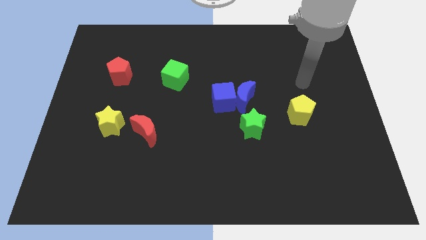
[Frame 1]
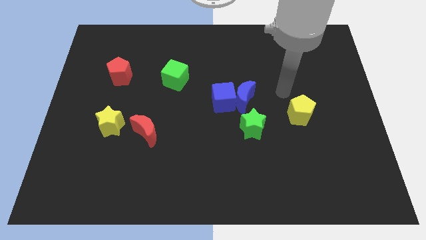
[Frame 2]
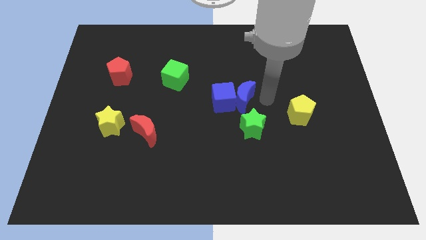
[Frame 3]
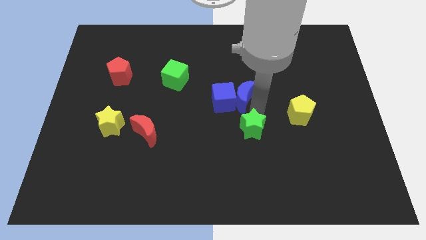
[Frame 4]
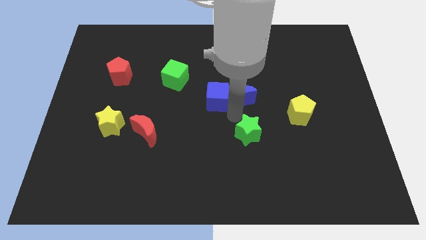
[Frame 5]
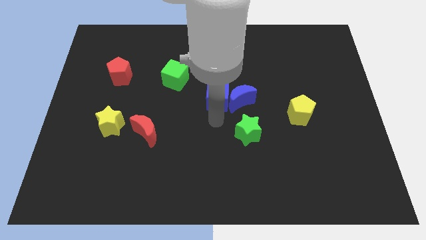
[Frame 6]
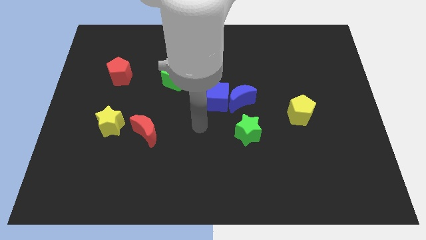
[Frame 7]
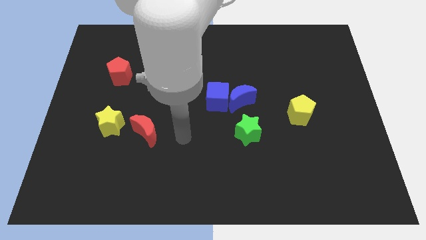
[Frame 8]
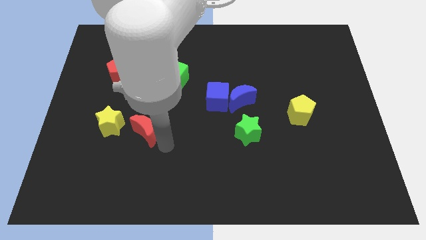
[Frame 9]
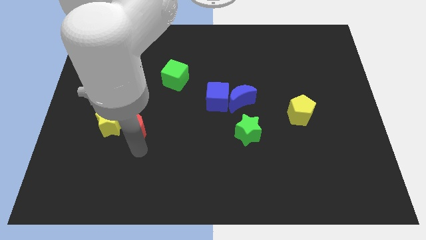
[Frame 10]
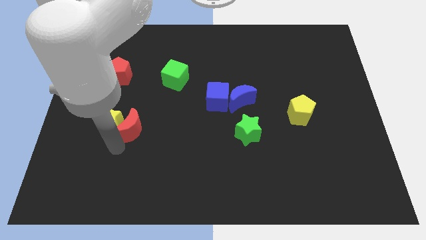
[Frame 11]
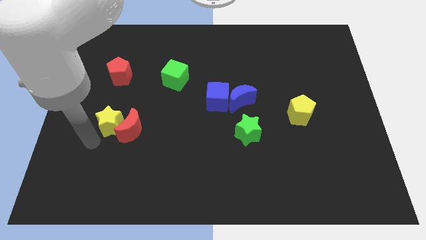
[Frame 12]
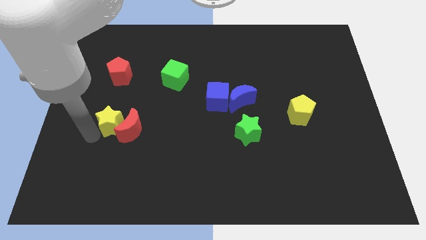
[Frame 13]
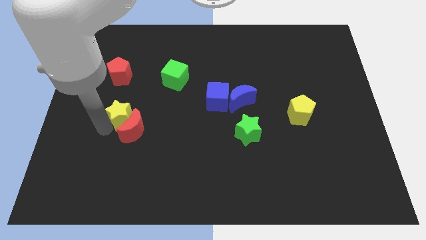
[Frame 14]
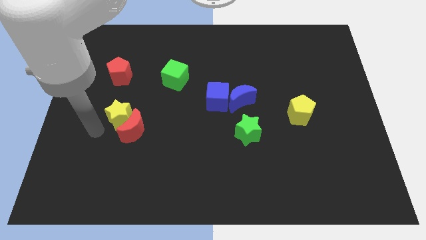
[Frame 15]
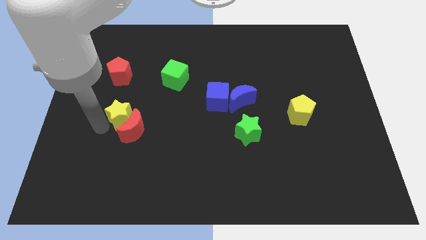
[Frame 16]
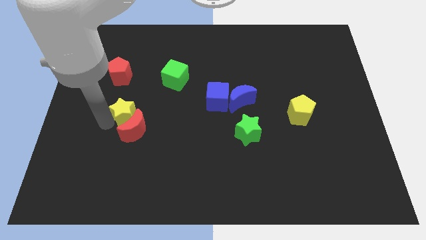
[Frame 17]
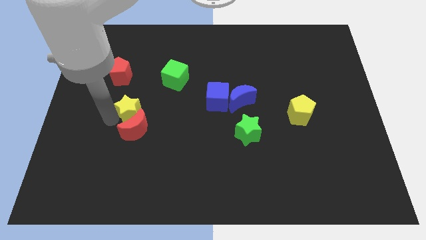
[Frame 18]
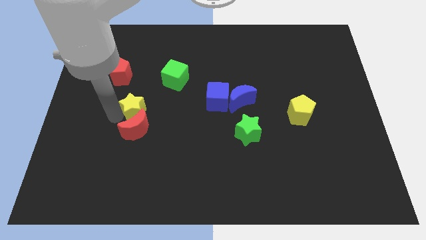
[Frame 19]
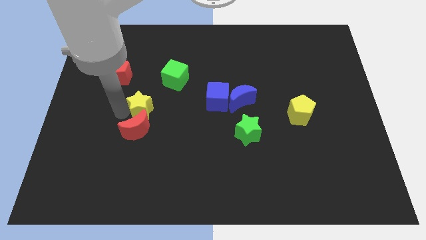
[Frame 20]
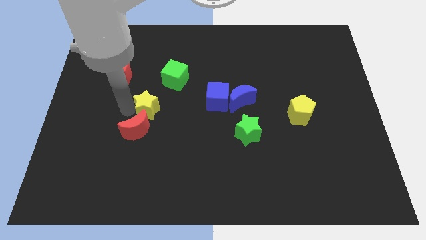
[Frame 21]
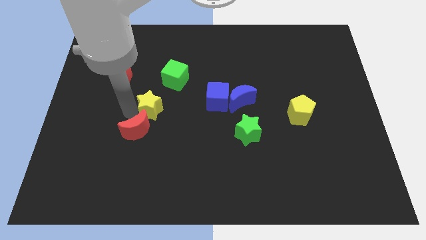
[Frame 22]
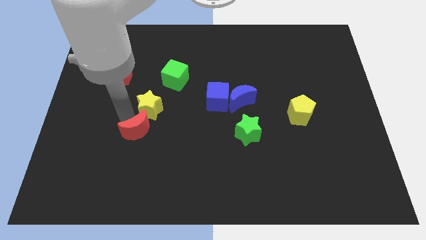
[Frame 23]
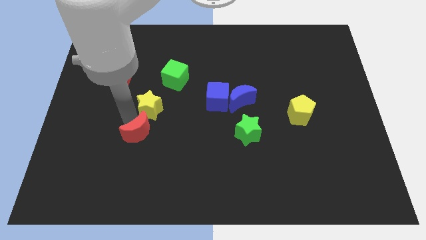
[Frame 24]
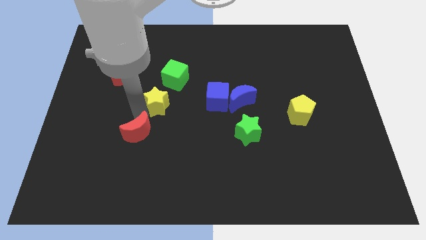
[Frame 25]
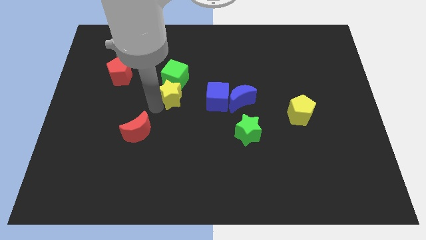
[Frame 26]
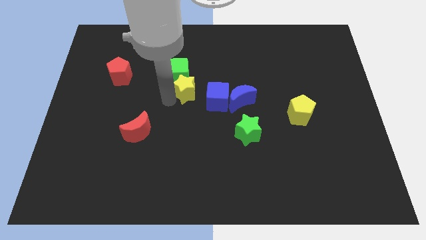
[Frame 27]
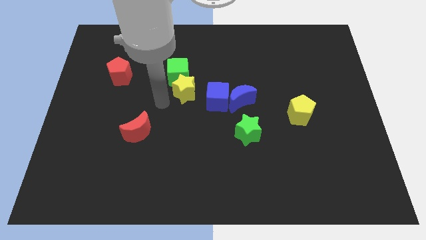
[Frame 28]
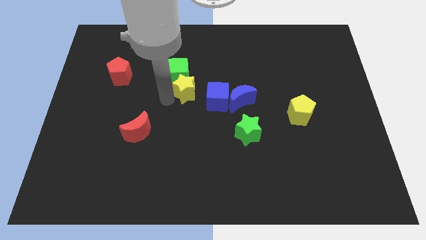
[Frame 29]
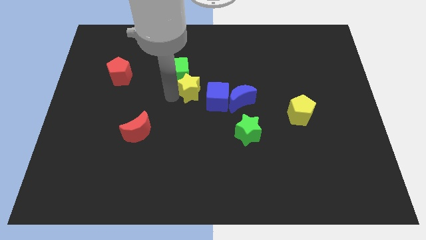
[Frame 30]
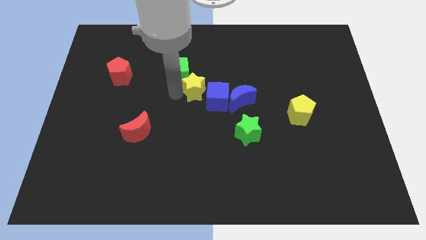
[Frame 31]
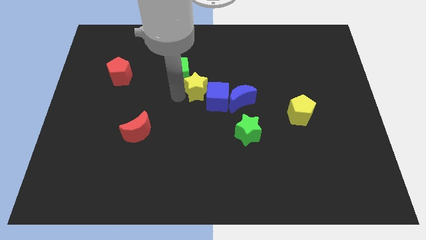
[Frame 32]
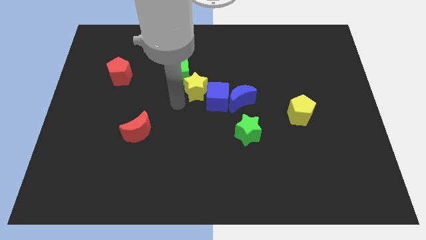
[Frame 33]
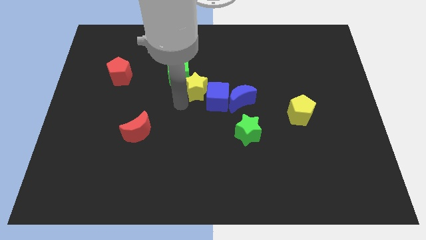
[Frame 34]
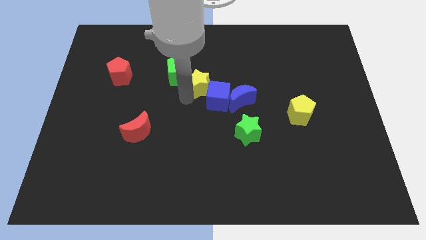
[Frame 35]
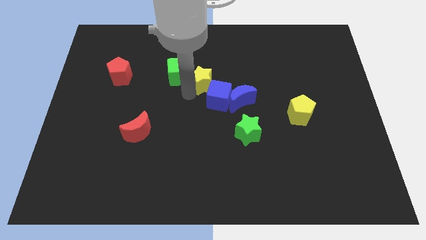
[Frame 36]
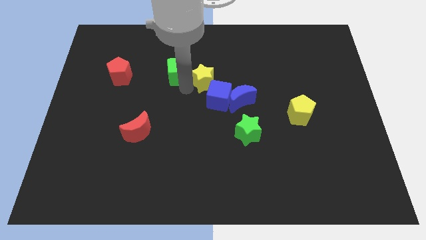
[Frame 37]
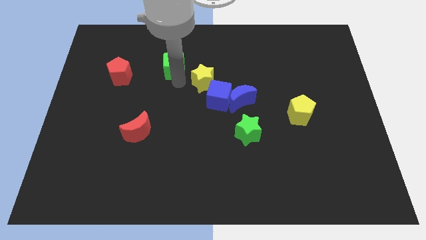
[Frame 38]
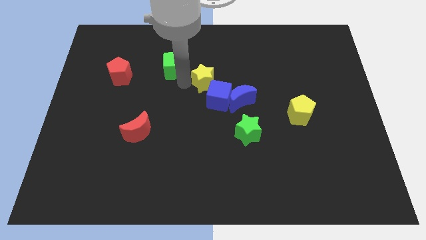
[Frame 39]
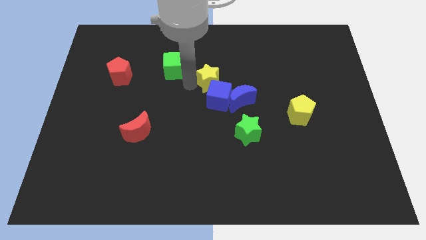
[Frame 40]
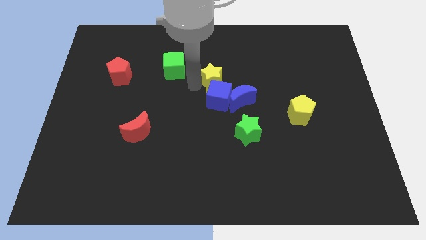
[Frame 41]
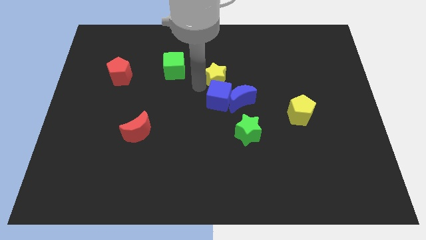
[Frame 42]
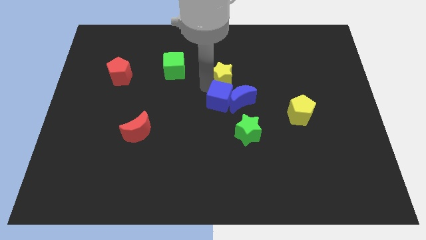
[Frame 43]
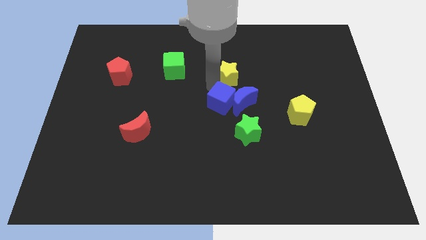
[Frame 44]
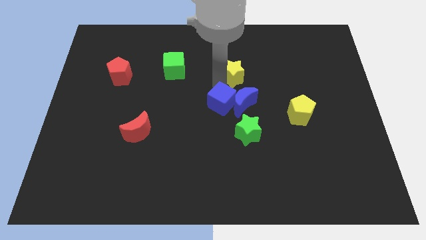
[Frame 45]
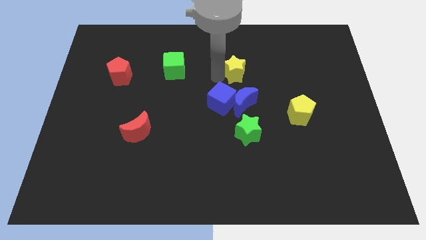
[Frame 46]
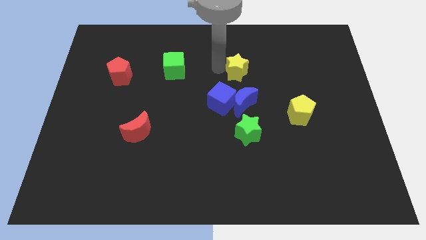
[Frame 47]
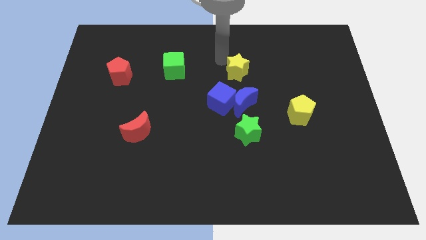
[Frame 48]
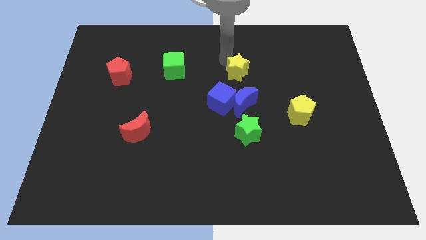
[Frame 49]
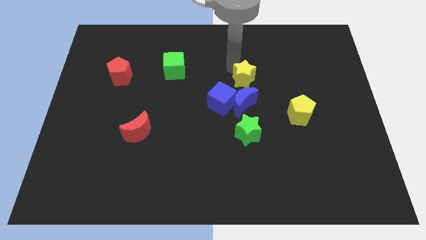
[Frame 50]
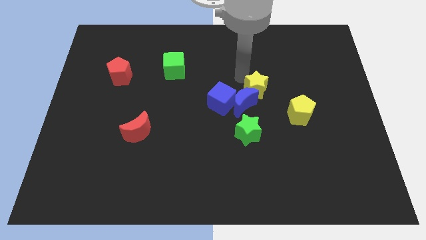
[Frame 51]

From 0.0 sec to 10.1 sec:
move the yellow star to the right of the blue moon

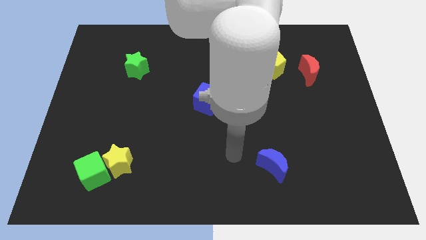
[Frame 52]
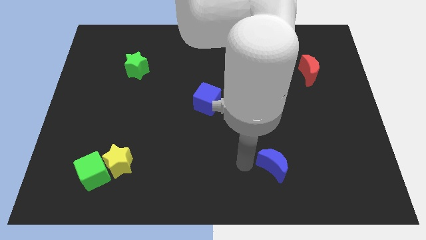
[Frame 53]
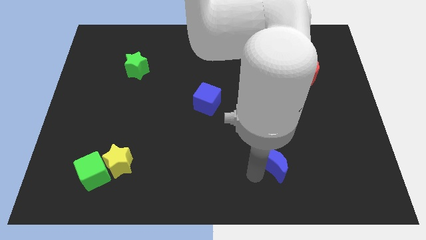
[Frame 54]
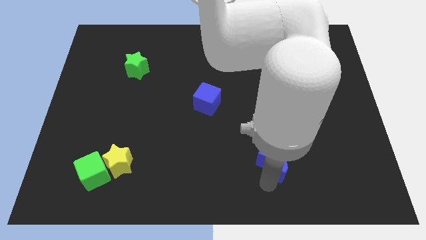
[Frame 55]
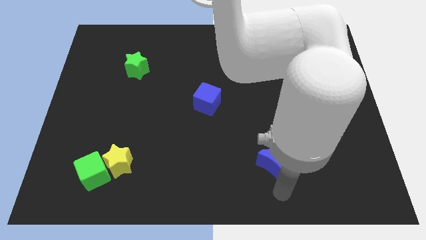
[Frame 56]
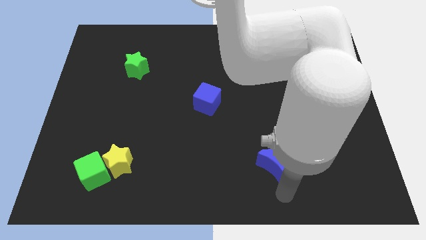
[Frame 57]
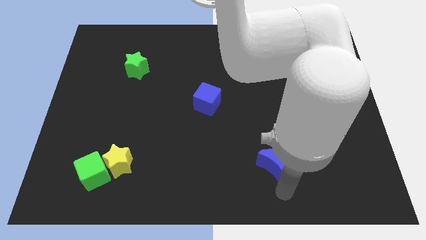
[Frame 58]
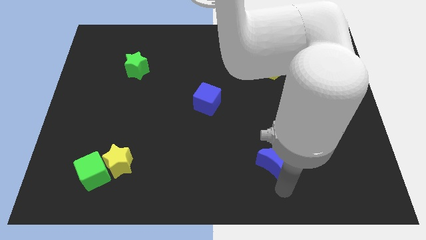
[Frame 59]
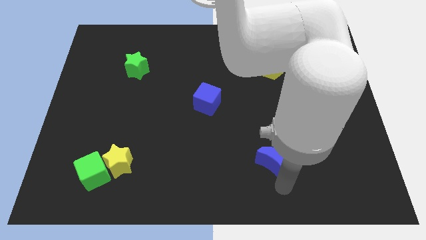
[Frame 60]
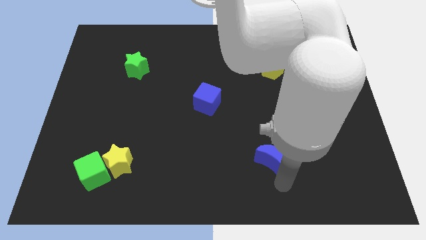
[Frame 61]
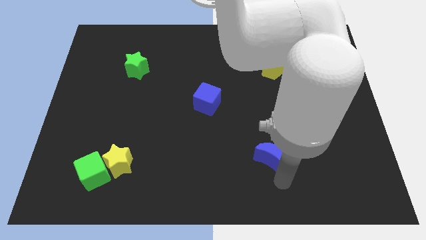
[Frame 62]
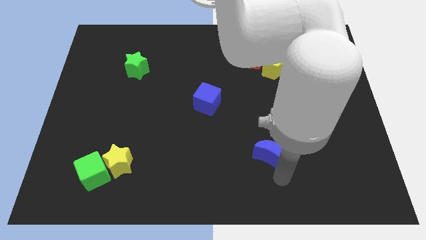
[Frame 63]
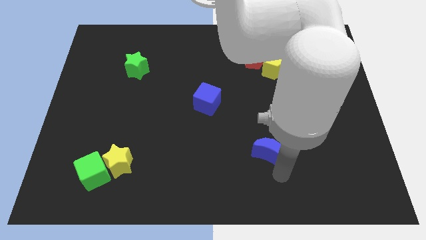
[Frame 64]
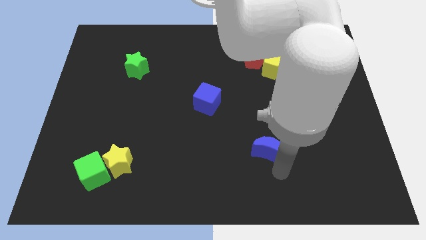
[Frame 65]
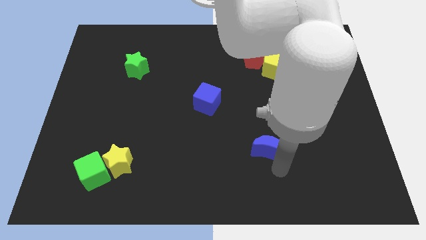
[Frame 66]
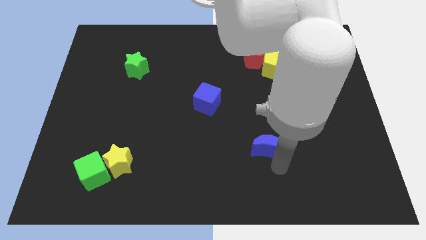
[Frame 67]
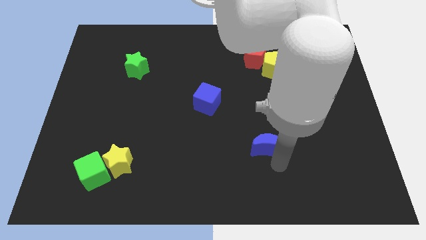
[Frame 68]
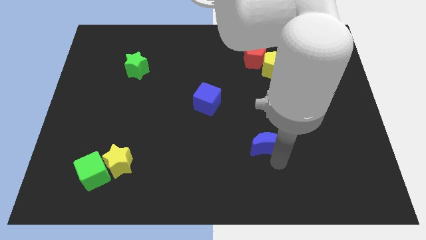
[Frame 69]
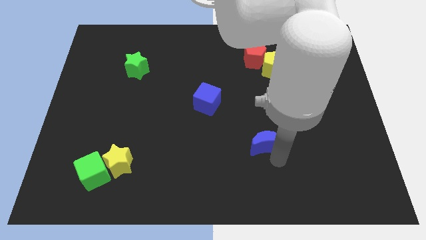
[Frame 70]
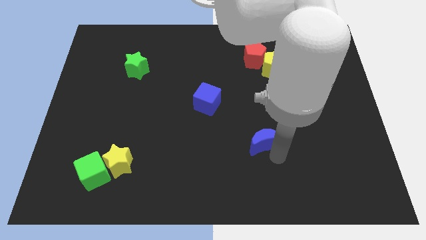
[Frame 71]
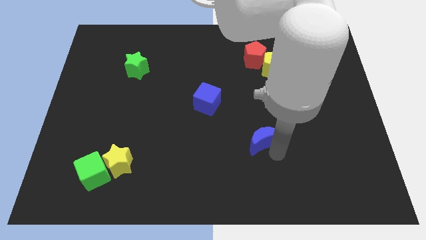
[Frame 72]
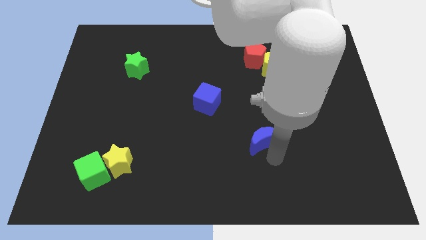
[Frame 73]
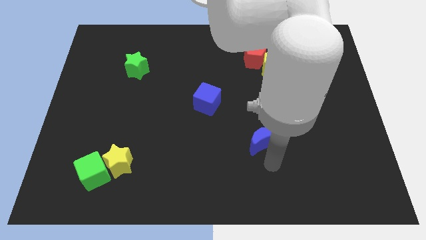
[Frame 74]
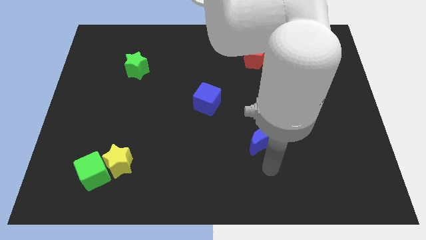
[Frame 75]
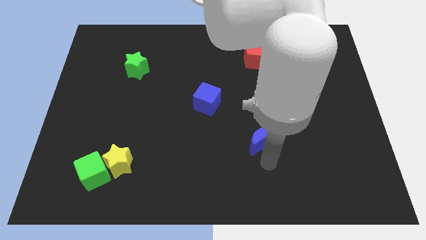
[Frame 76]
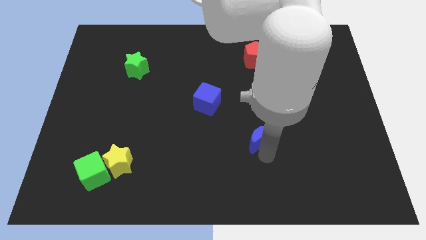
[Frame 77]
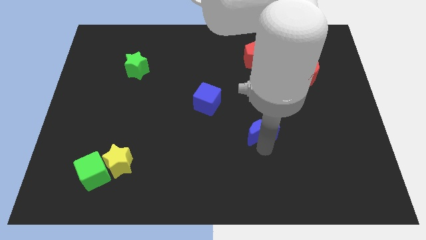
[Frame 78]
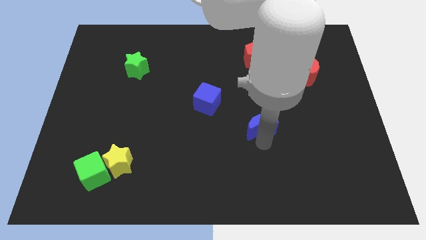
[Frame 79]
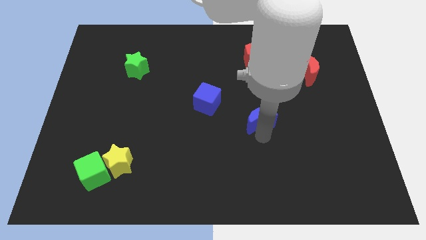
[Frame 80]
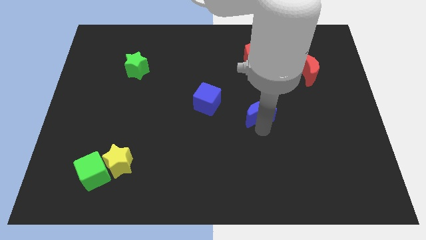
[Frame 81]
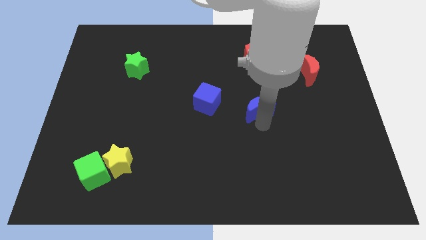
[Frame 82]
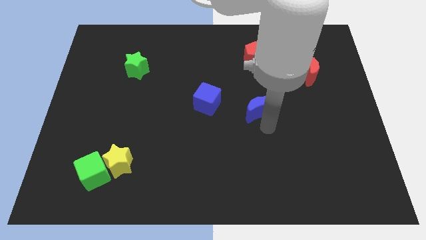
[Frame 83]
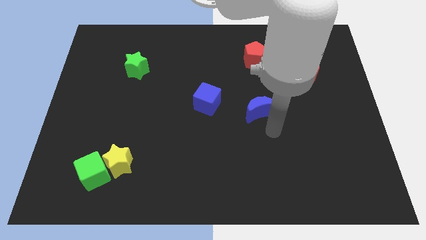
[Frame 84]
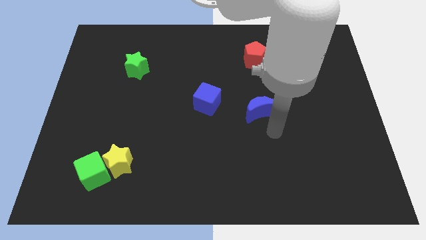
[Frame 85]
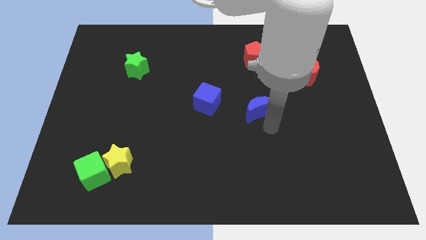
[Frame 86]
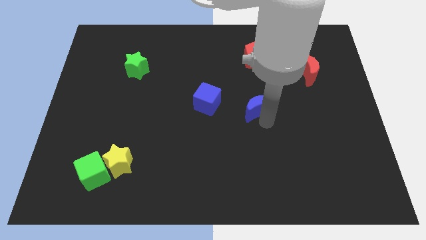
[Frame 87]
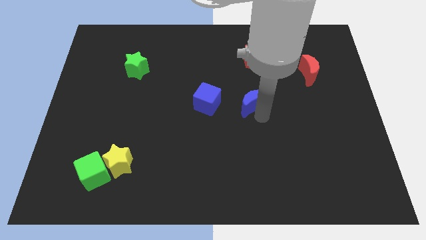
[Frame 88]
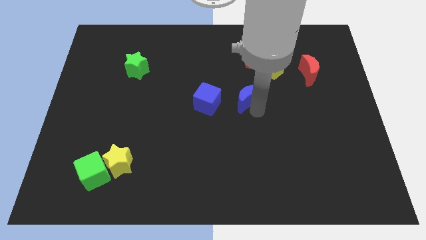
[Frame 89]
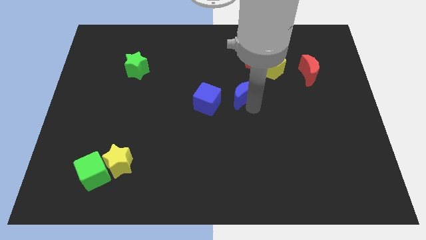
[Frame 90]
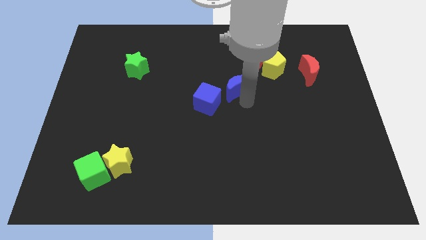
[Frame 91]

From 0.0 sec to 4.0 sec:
move the blue moon to the bottom left of the red pentagon
